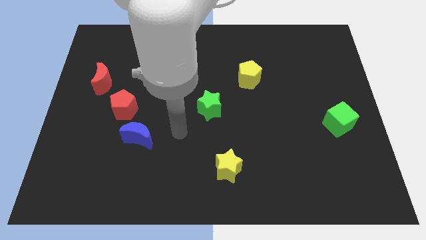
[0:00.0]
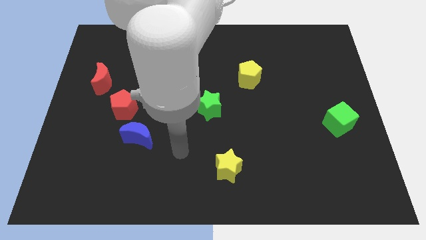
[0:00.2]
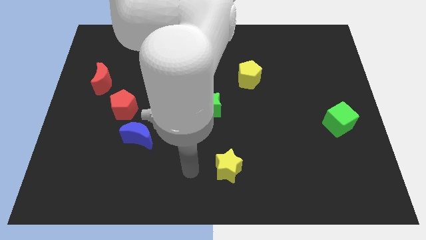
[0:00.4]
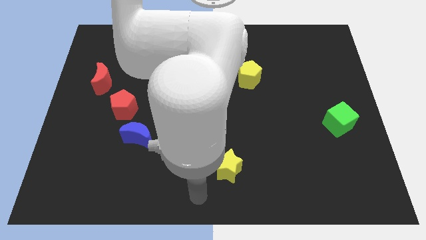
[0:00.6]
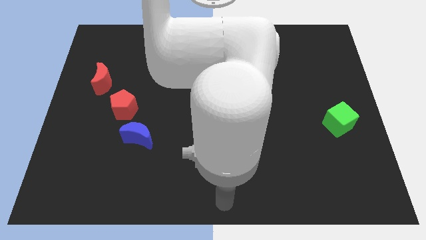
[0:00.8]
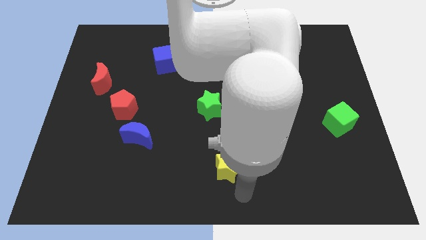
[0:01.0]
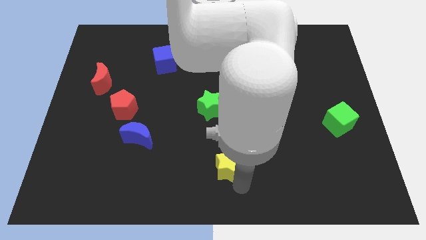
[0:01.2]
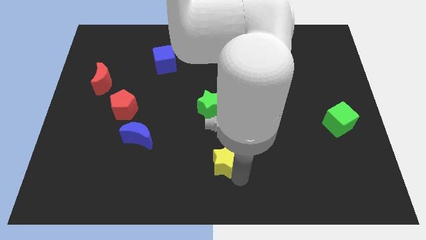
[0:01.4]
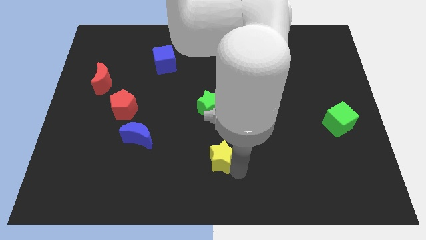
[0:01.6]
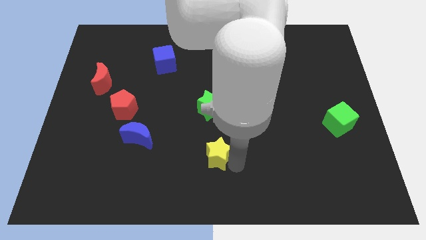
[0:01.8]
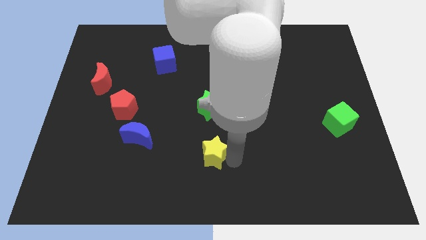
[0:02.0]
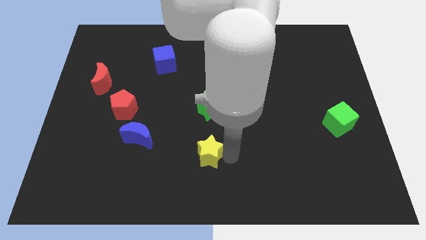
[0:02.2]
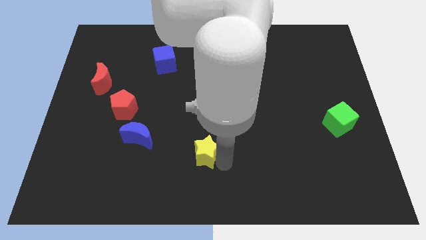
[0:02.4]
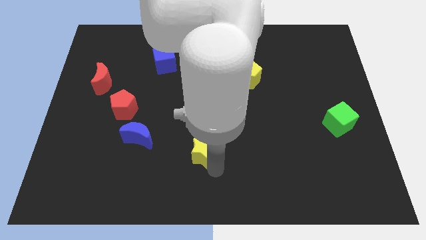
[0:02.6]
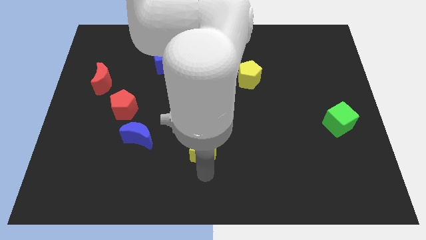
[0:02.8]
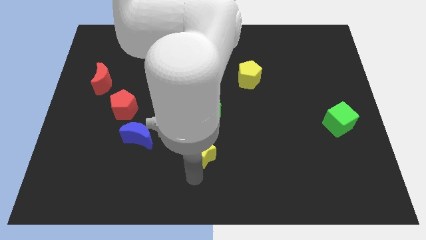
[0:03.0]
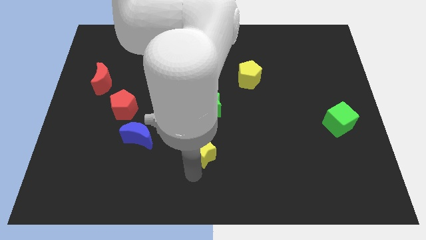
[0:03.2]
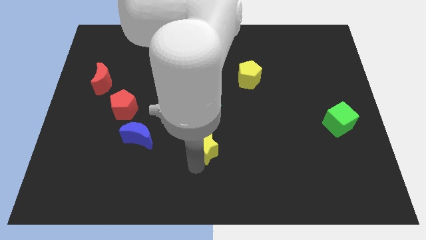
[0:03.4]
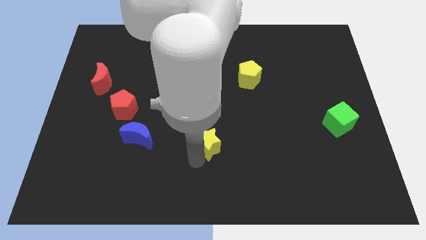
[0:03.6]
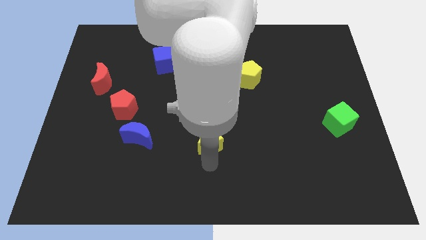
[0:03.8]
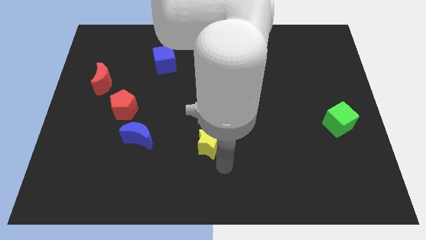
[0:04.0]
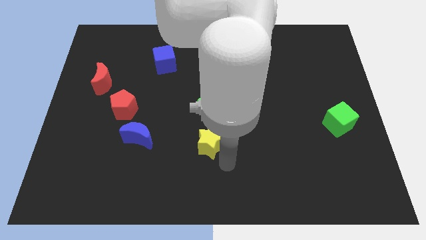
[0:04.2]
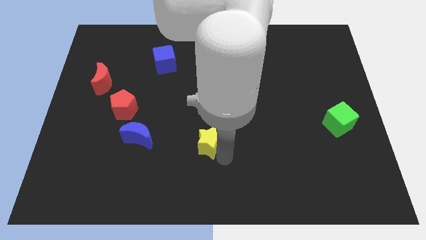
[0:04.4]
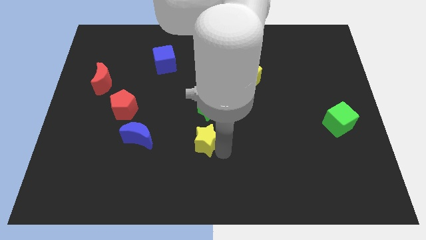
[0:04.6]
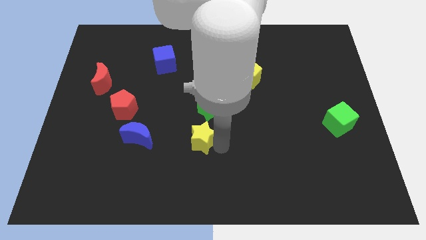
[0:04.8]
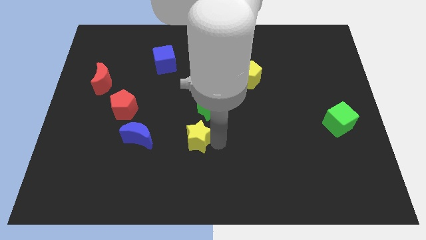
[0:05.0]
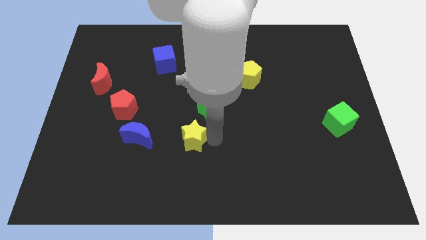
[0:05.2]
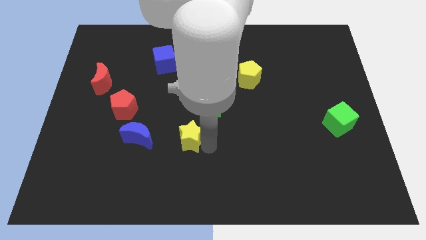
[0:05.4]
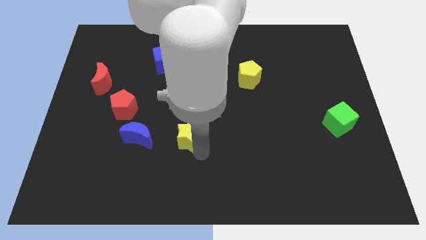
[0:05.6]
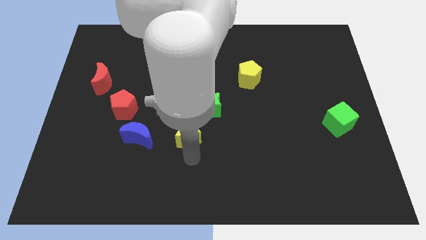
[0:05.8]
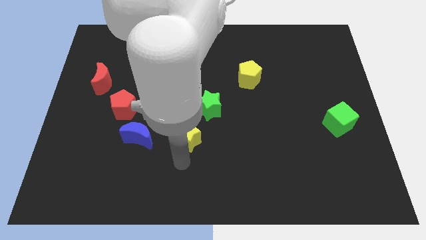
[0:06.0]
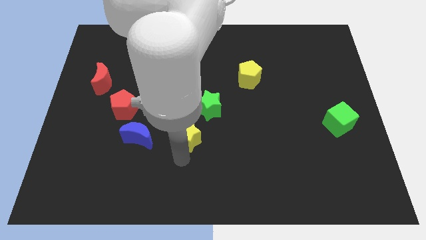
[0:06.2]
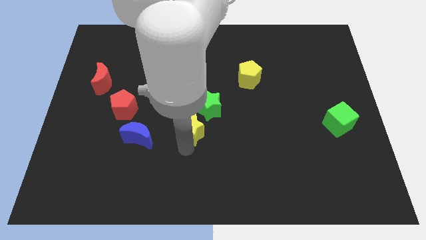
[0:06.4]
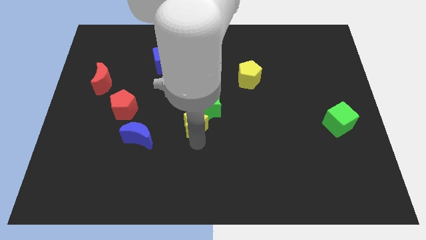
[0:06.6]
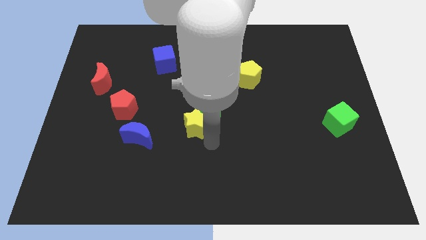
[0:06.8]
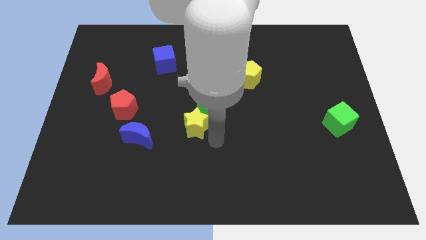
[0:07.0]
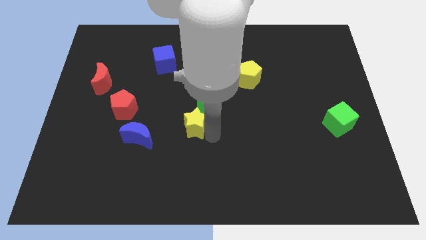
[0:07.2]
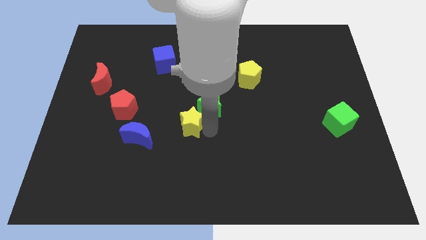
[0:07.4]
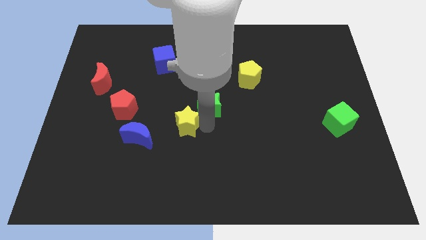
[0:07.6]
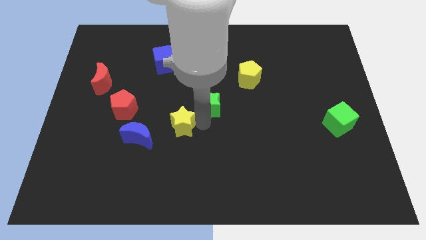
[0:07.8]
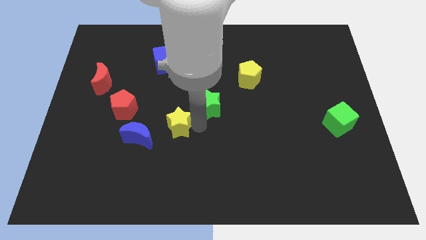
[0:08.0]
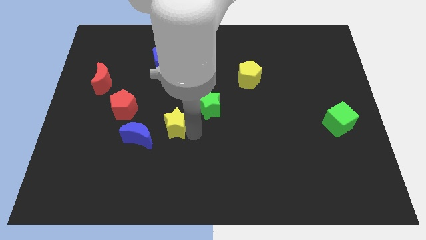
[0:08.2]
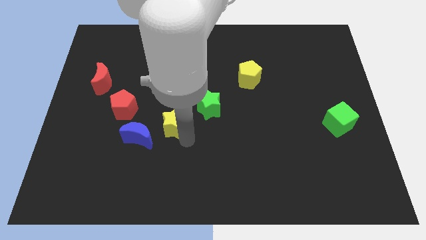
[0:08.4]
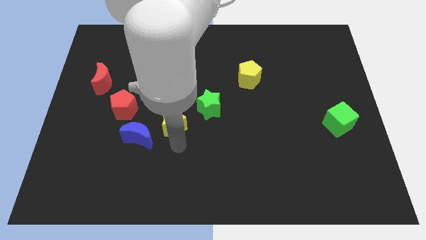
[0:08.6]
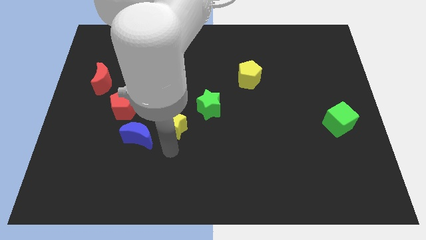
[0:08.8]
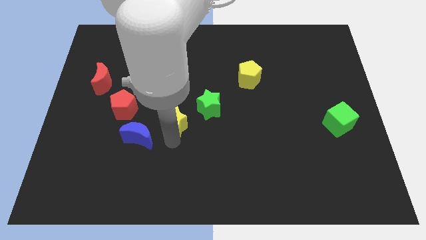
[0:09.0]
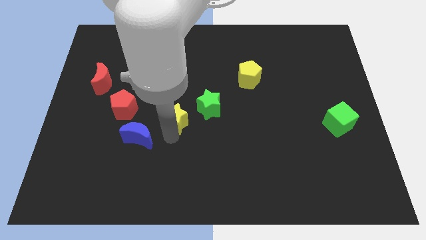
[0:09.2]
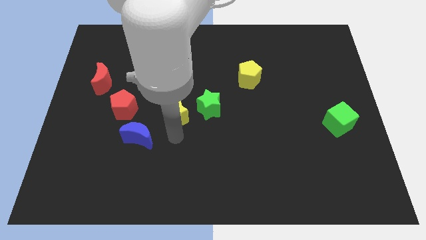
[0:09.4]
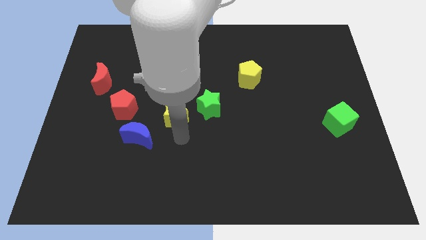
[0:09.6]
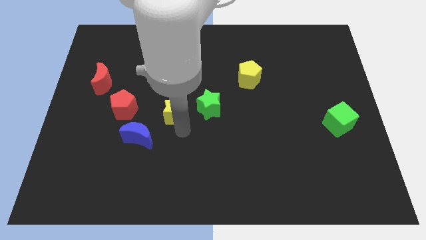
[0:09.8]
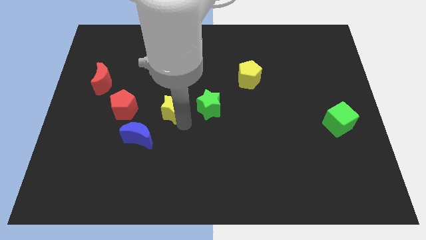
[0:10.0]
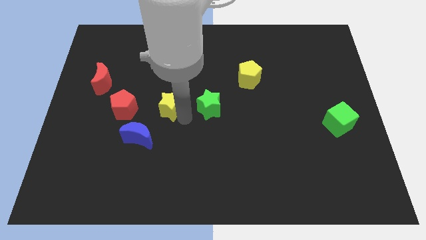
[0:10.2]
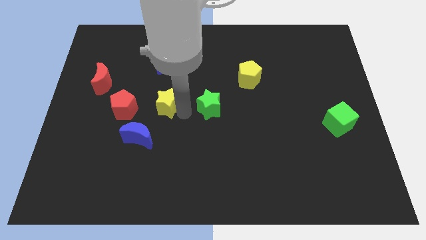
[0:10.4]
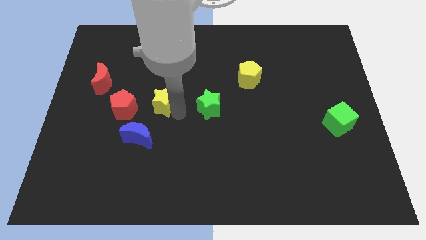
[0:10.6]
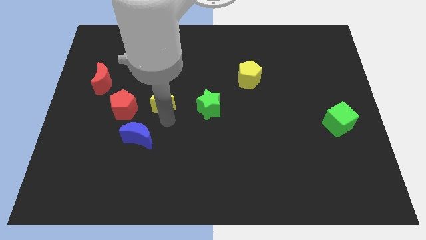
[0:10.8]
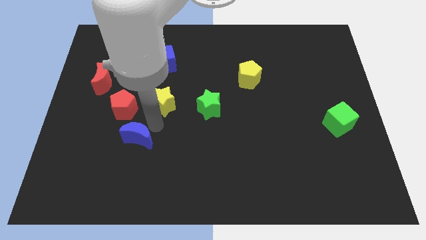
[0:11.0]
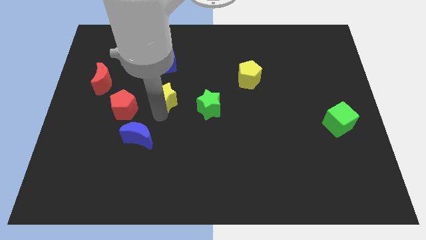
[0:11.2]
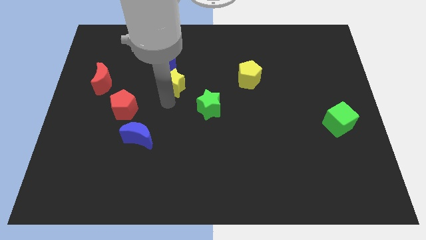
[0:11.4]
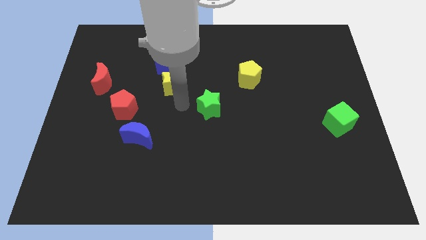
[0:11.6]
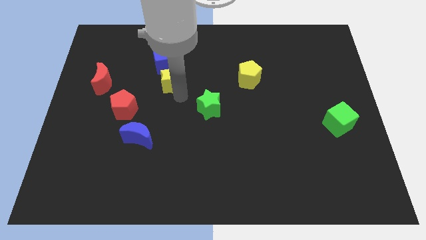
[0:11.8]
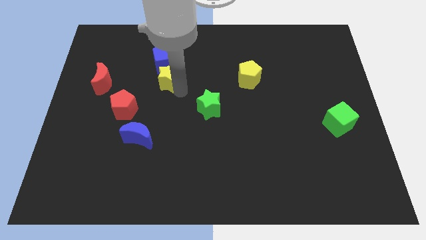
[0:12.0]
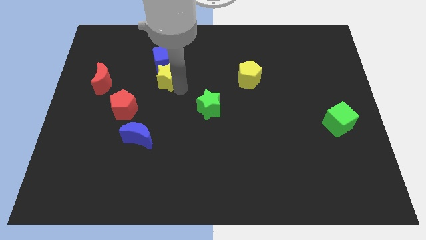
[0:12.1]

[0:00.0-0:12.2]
put the yellow star to the blue cube

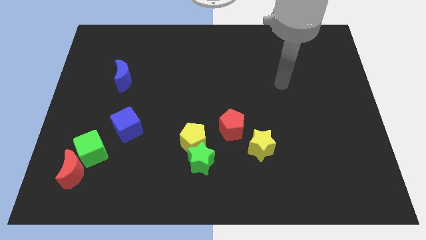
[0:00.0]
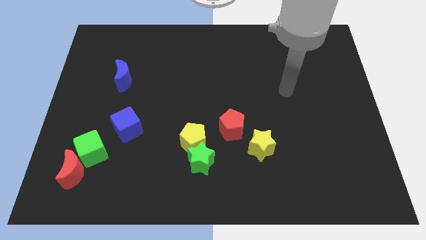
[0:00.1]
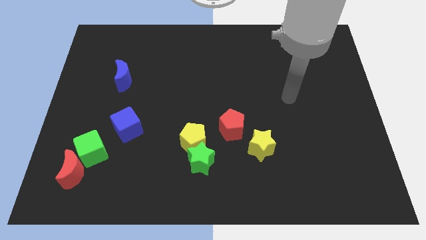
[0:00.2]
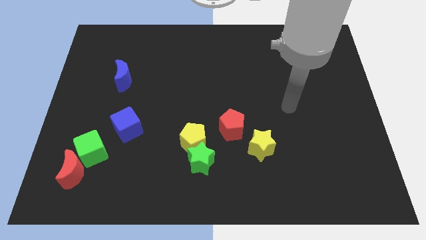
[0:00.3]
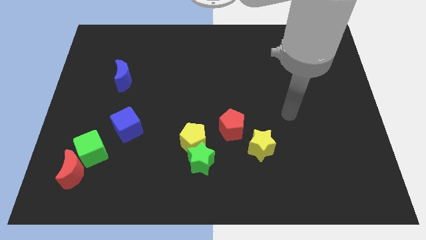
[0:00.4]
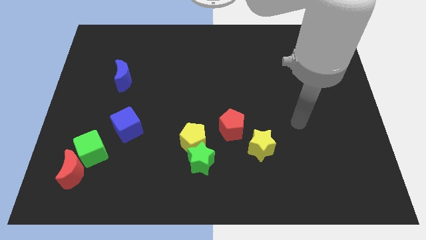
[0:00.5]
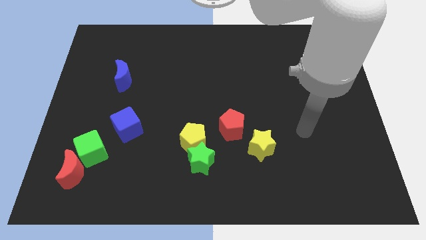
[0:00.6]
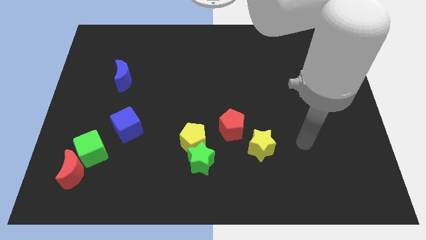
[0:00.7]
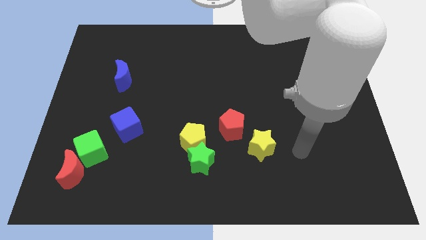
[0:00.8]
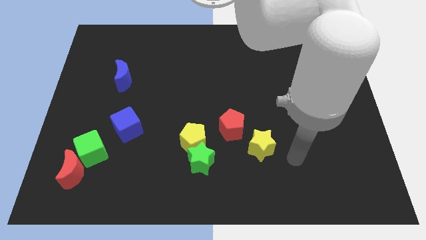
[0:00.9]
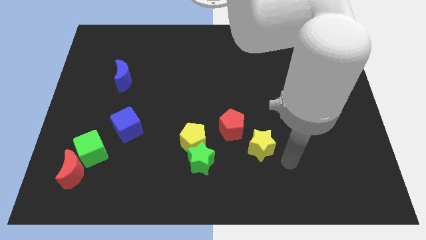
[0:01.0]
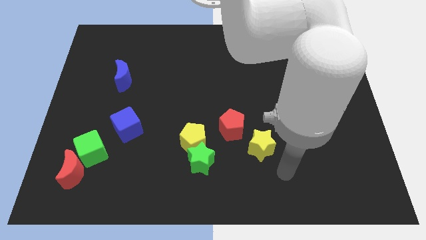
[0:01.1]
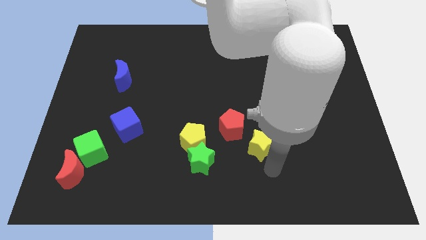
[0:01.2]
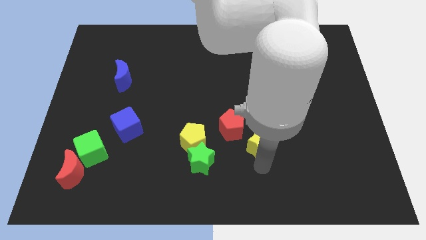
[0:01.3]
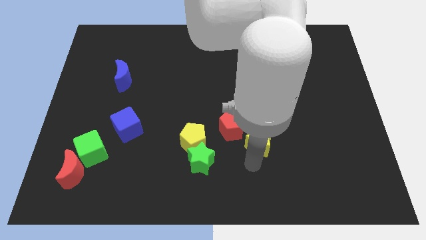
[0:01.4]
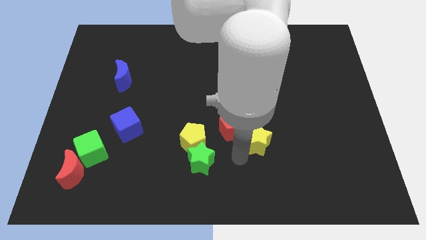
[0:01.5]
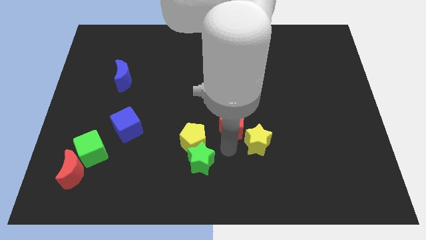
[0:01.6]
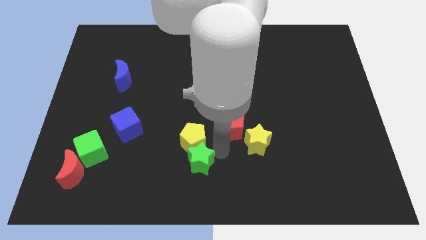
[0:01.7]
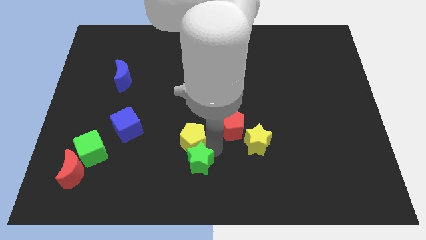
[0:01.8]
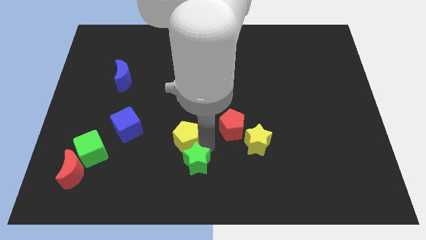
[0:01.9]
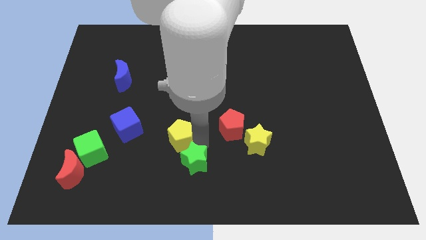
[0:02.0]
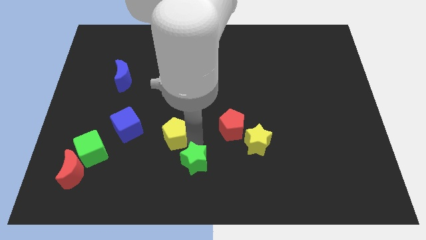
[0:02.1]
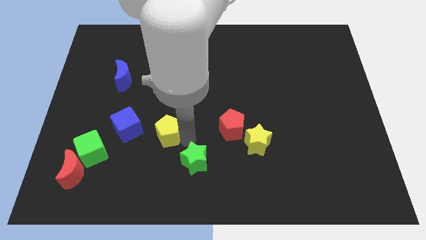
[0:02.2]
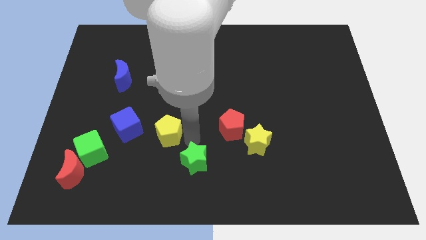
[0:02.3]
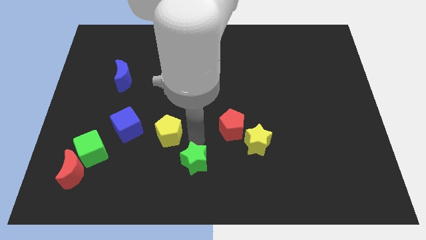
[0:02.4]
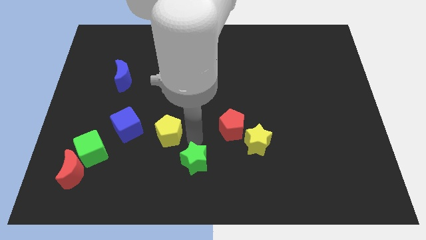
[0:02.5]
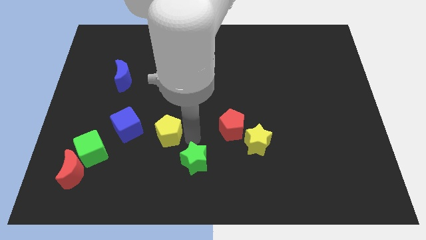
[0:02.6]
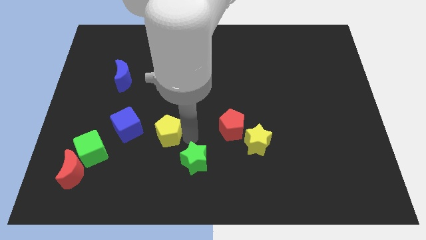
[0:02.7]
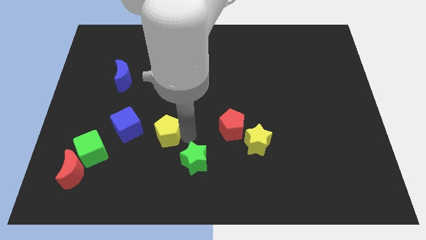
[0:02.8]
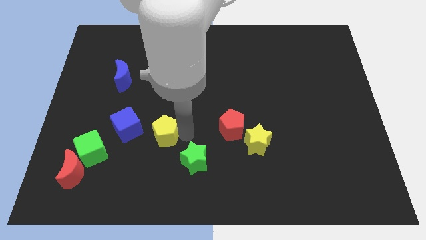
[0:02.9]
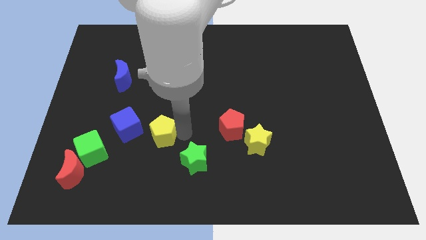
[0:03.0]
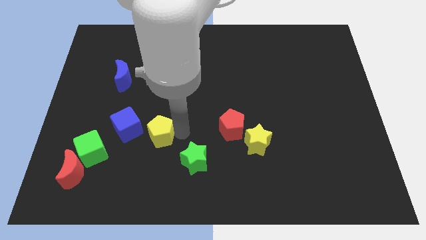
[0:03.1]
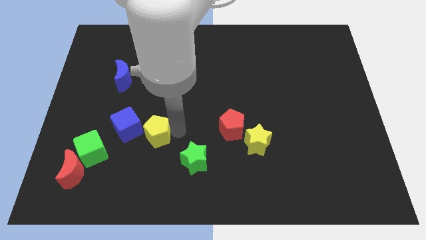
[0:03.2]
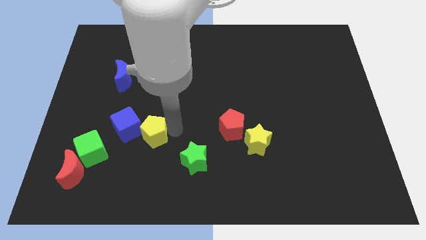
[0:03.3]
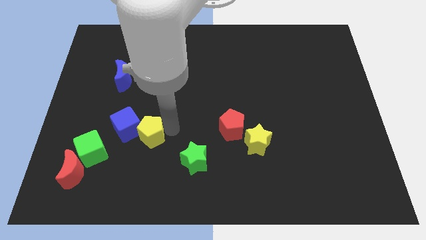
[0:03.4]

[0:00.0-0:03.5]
slide the yellow pentagon close to the blue cube
